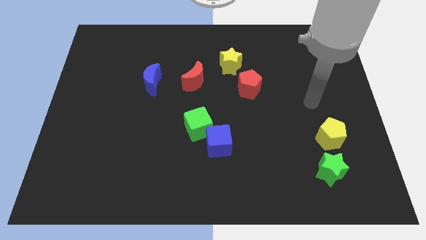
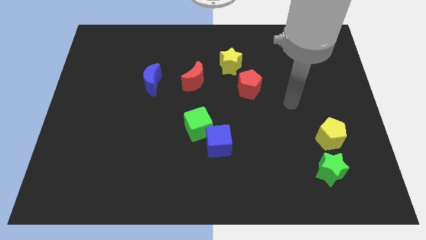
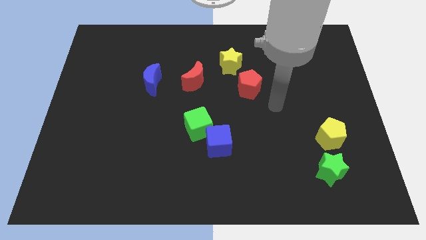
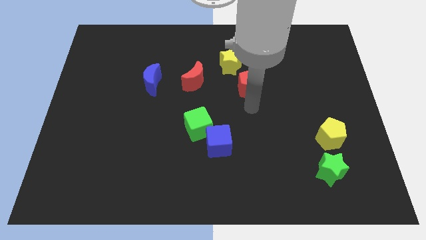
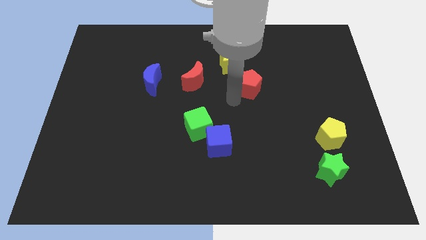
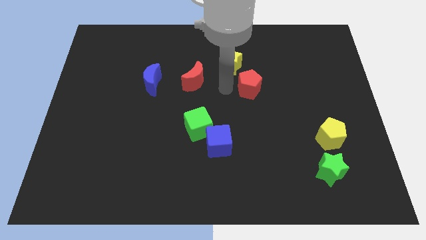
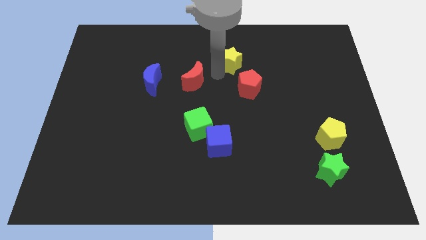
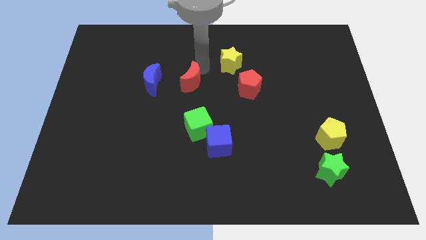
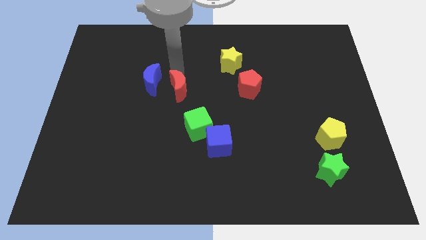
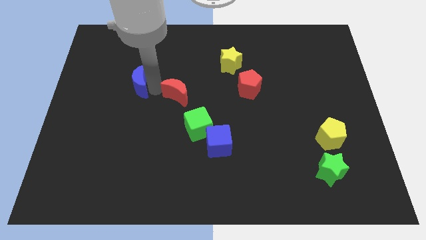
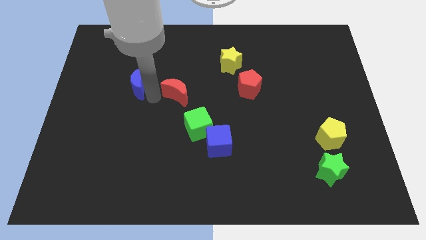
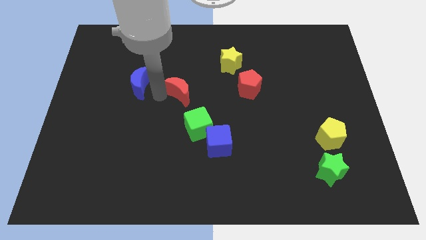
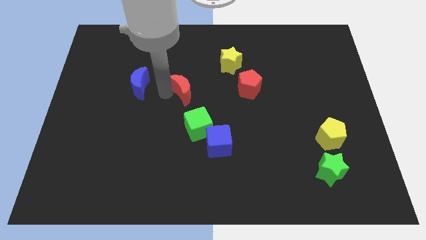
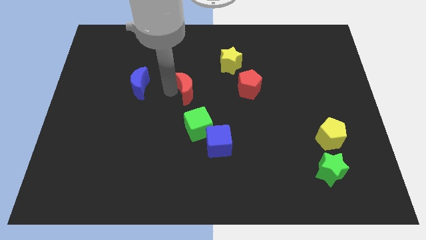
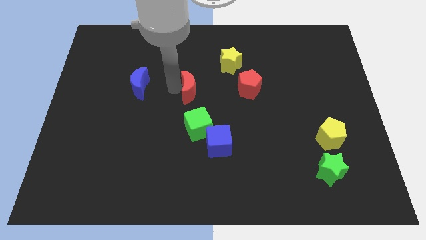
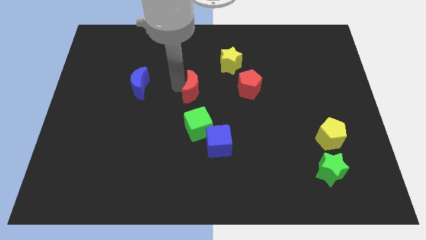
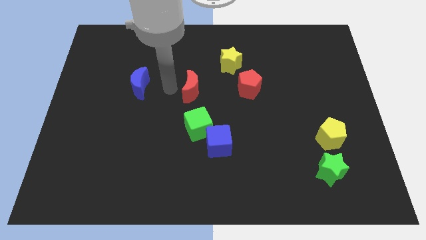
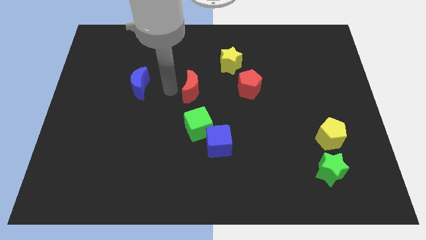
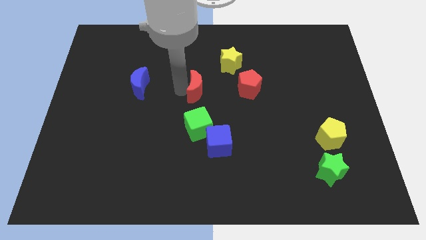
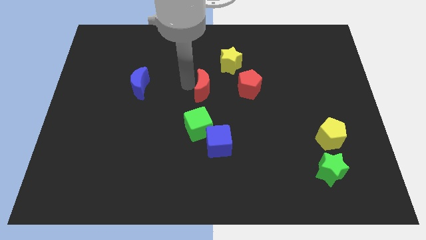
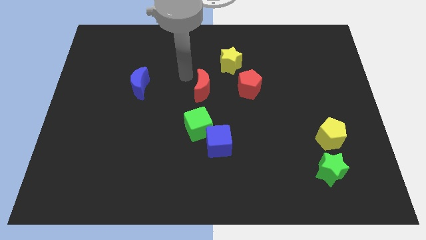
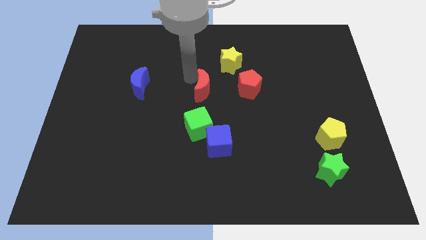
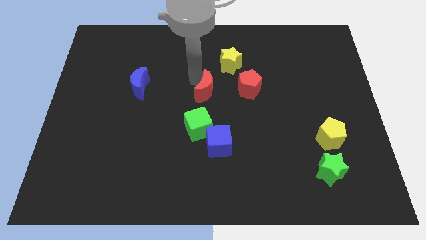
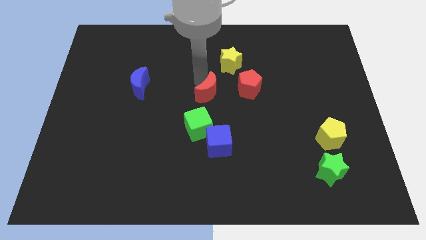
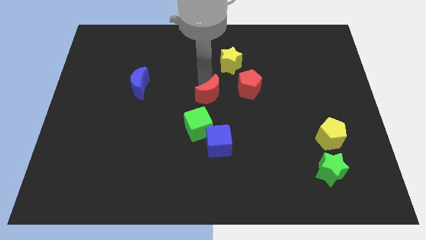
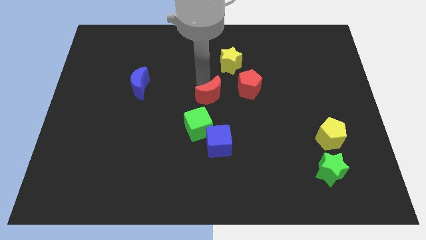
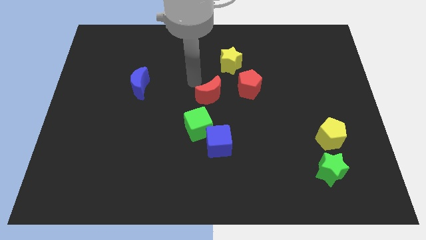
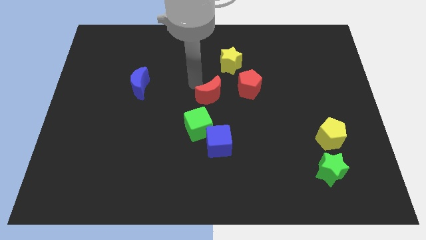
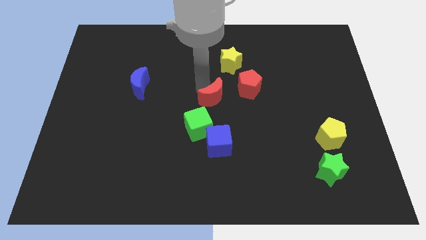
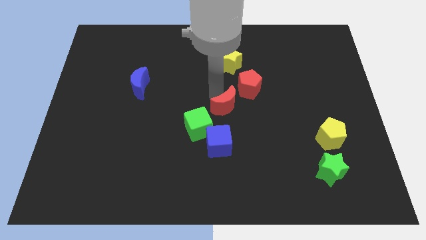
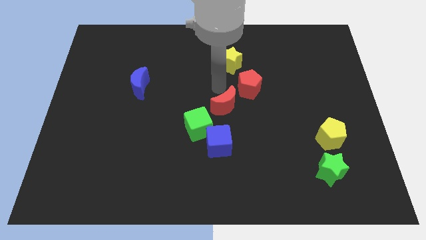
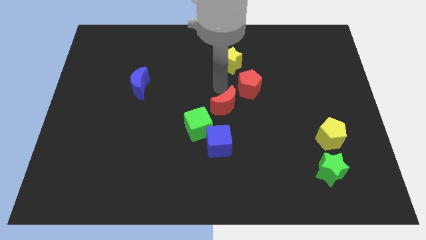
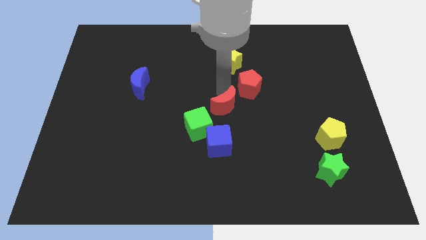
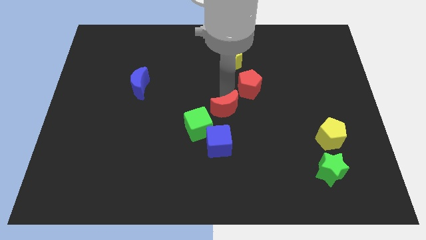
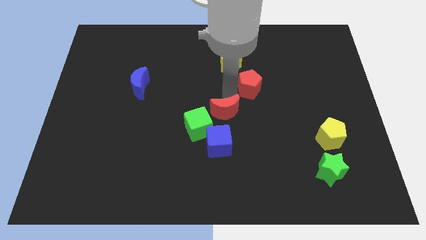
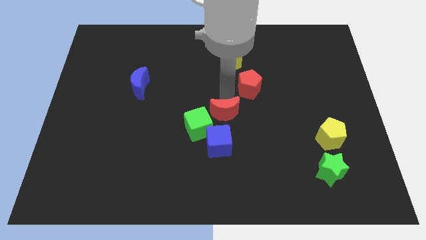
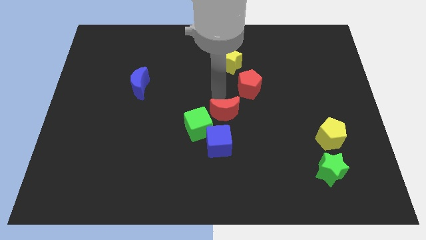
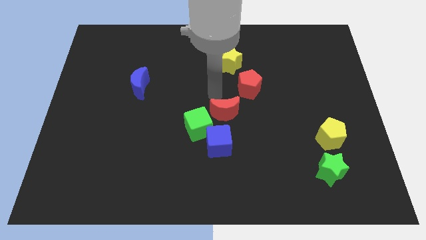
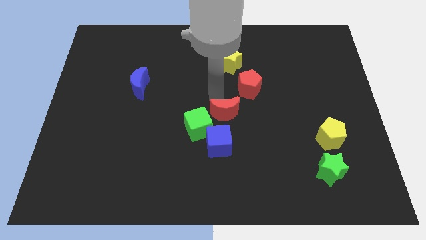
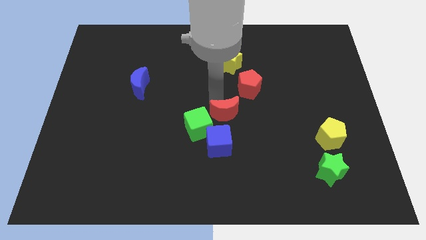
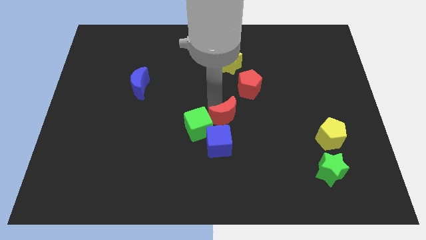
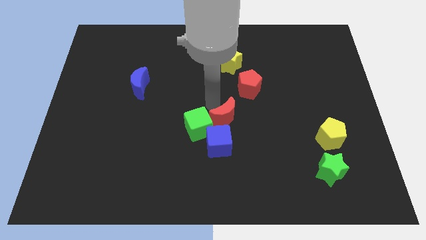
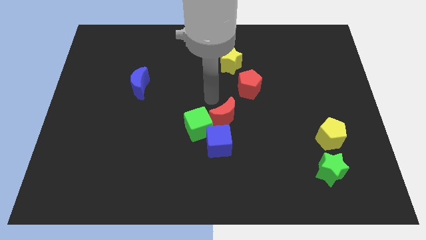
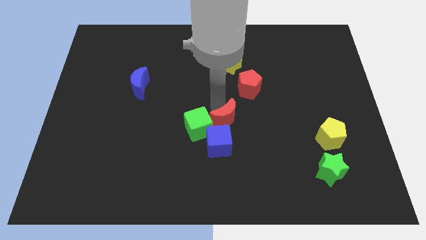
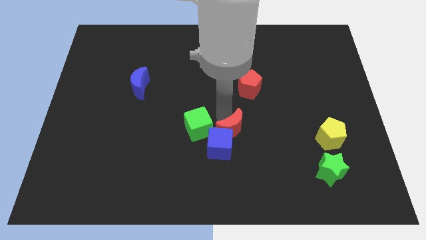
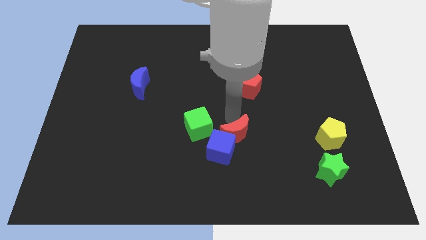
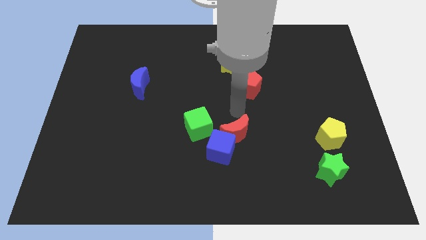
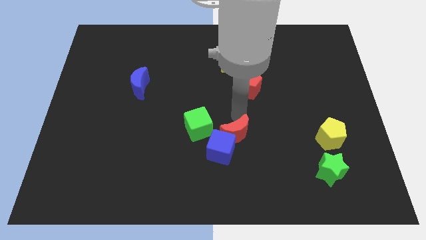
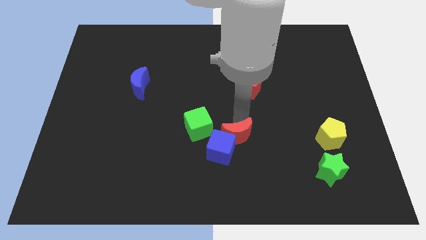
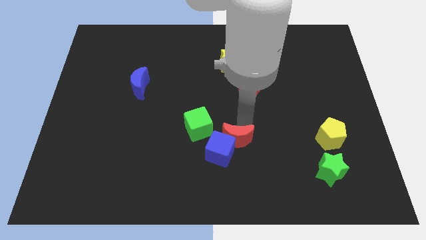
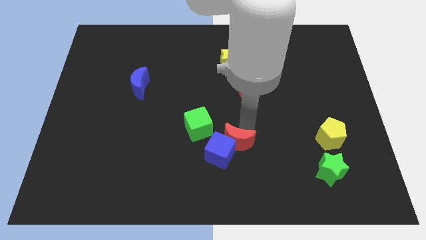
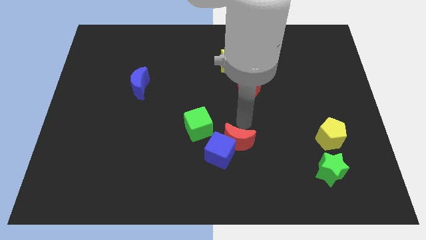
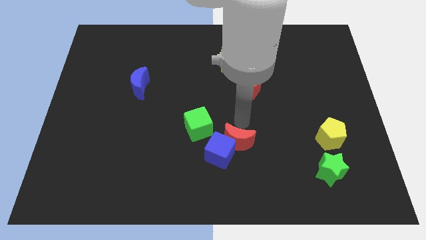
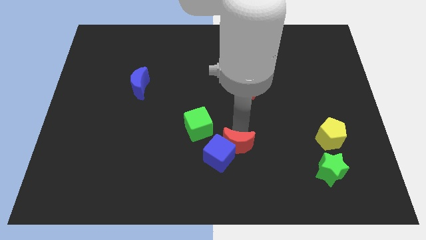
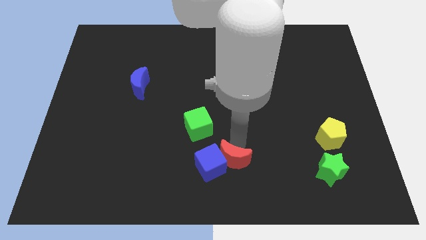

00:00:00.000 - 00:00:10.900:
move the red moon to the bottom

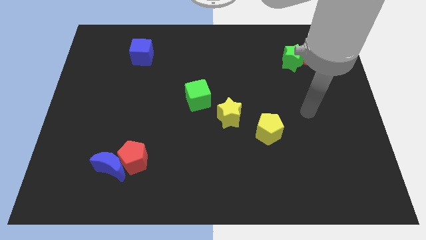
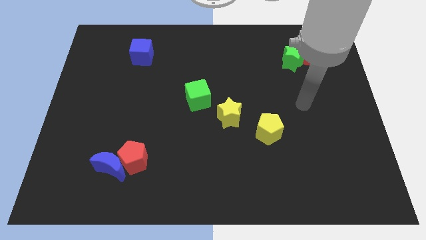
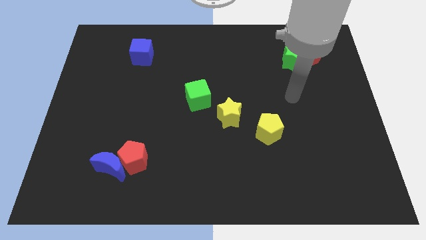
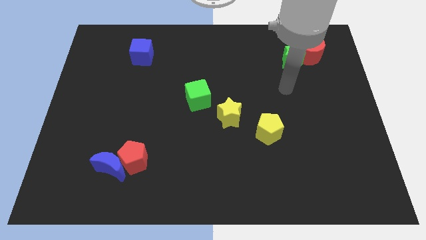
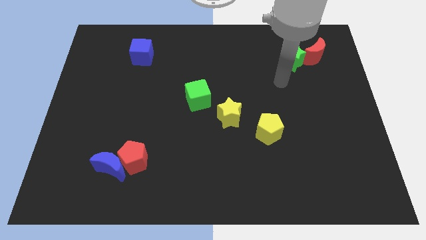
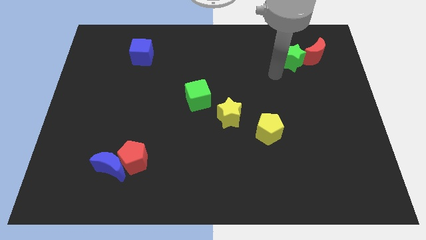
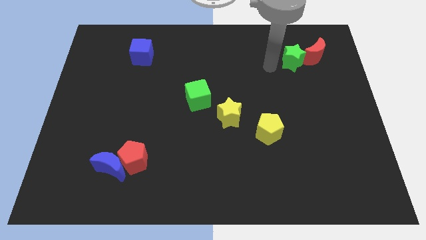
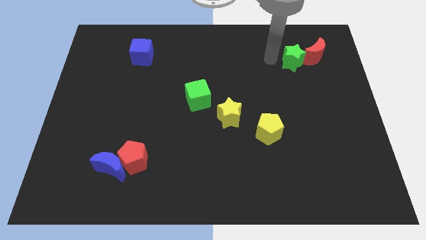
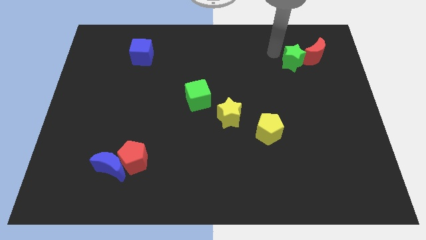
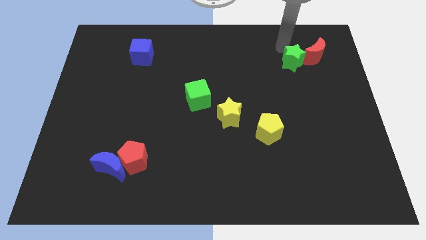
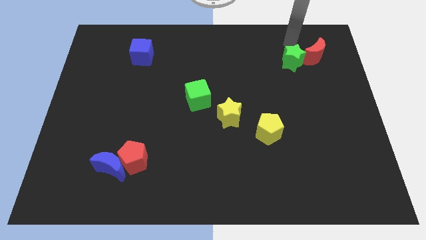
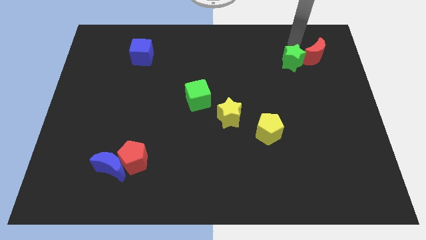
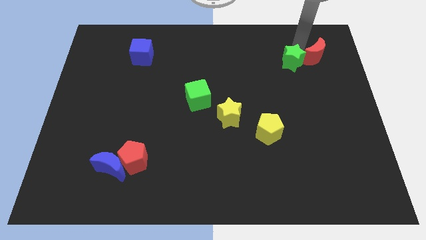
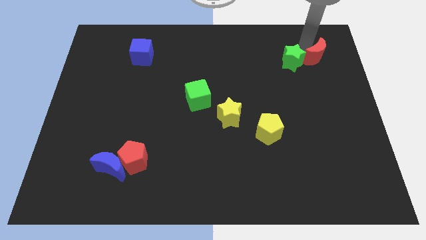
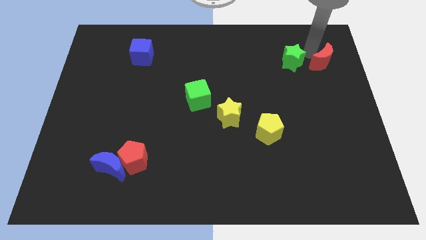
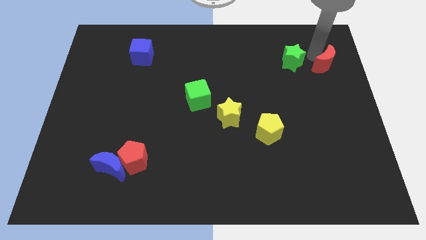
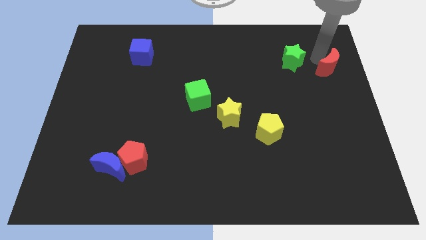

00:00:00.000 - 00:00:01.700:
put the red moon to the center right
